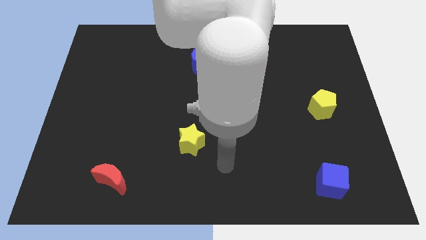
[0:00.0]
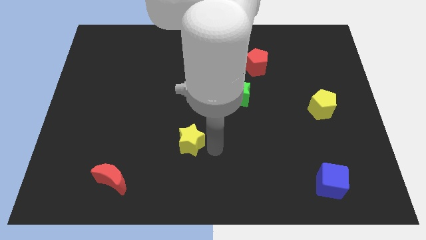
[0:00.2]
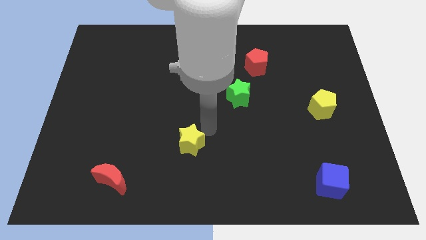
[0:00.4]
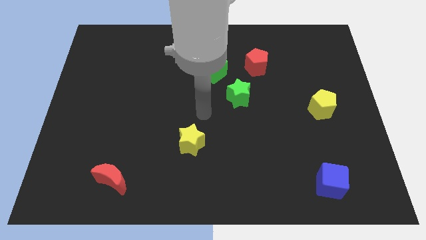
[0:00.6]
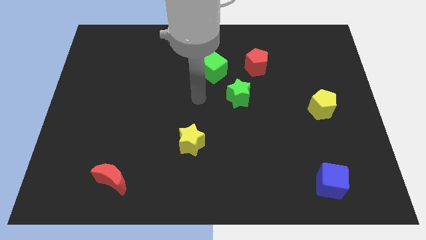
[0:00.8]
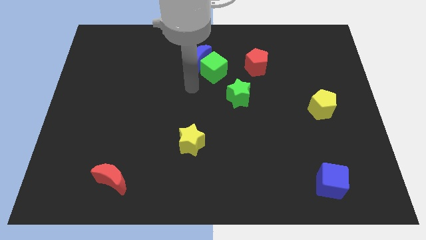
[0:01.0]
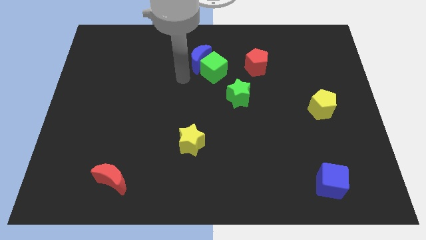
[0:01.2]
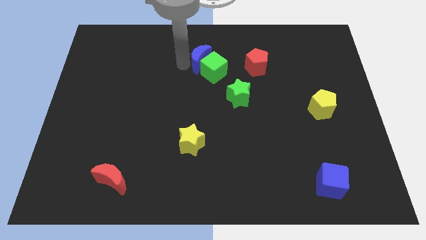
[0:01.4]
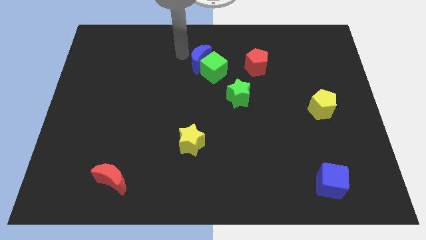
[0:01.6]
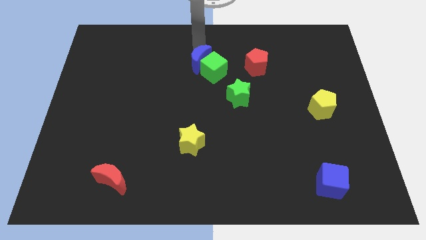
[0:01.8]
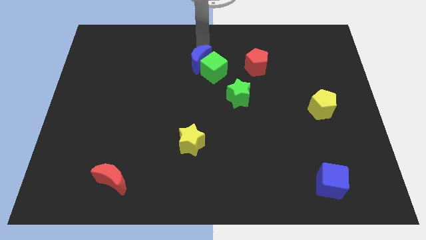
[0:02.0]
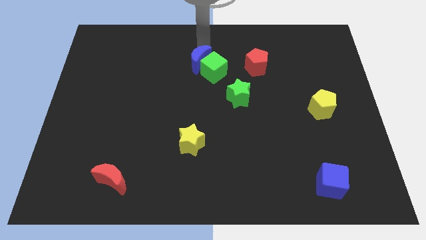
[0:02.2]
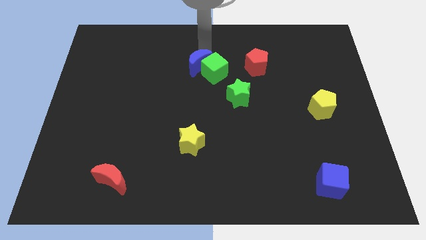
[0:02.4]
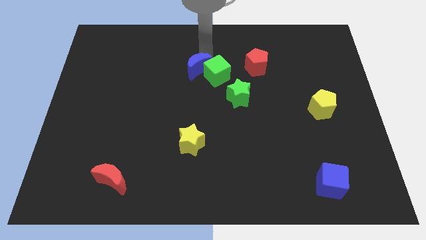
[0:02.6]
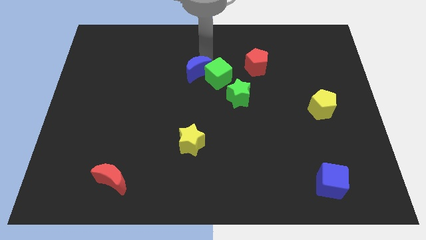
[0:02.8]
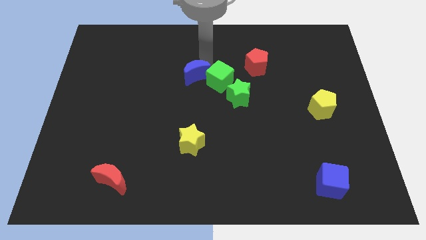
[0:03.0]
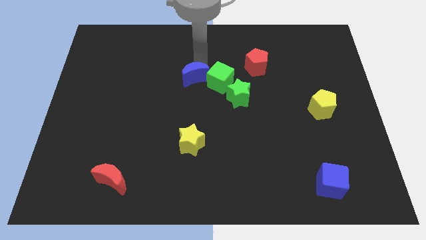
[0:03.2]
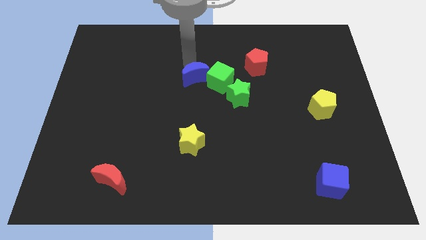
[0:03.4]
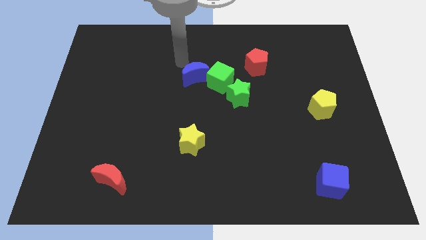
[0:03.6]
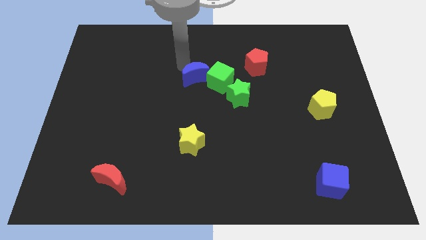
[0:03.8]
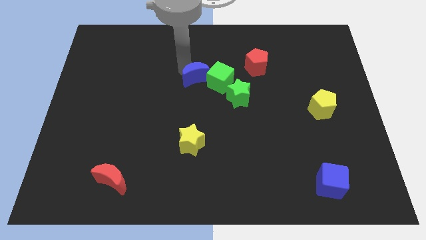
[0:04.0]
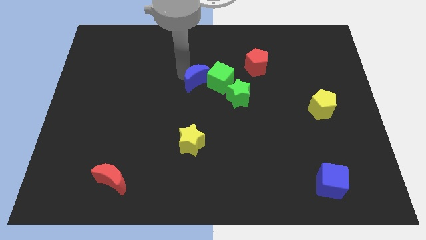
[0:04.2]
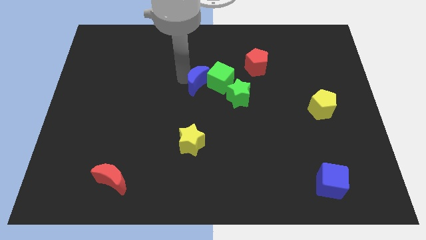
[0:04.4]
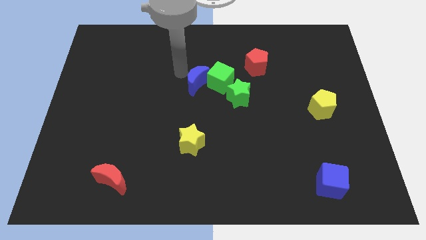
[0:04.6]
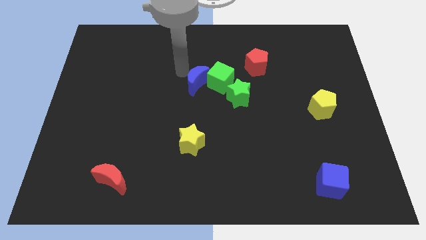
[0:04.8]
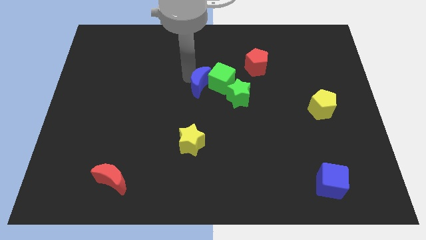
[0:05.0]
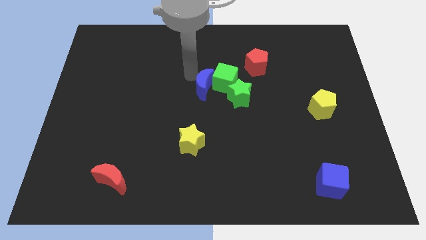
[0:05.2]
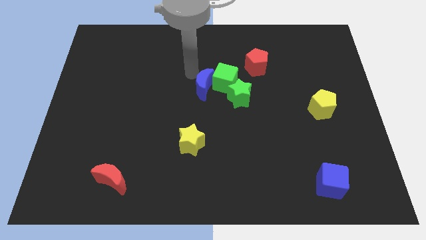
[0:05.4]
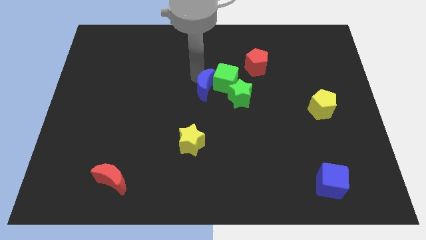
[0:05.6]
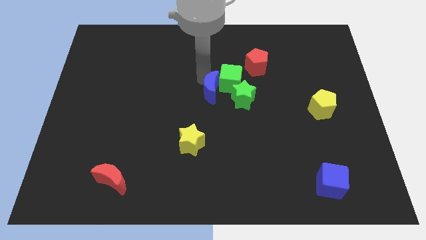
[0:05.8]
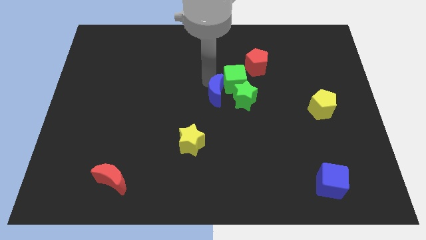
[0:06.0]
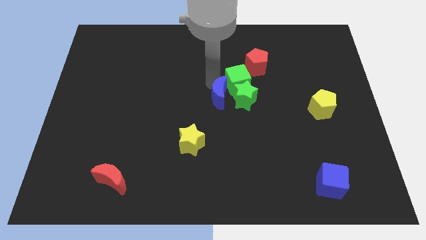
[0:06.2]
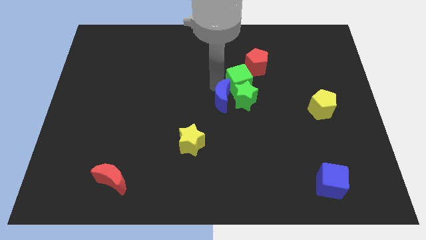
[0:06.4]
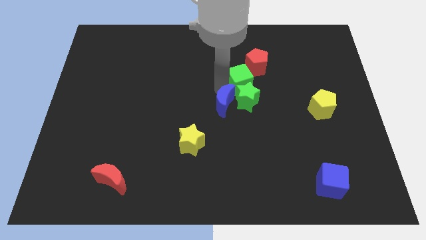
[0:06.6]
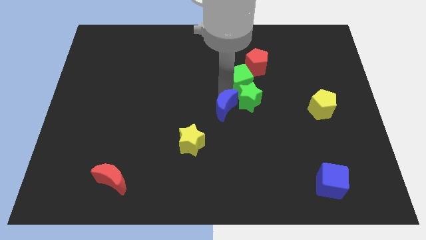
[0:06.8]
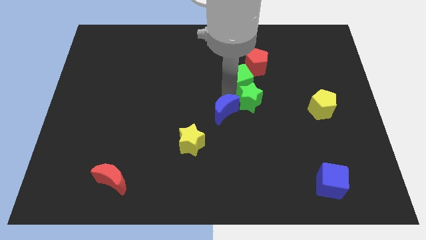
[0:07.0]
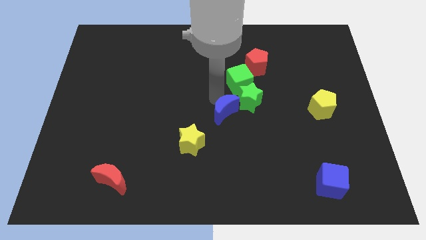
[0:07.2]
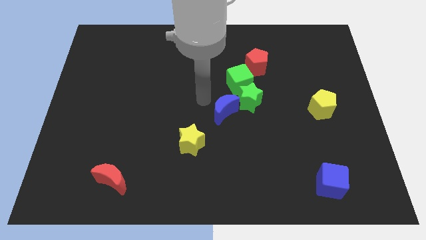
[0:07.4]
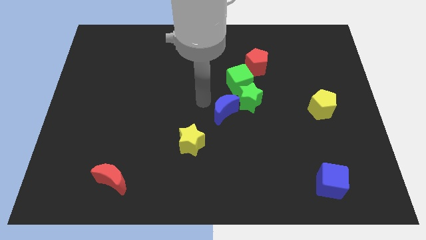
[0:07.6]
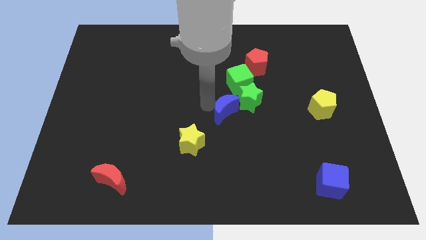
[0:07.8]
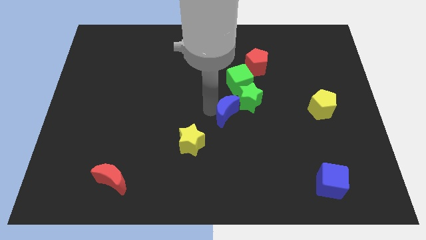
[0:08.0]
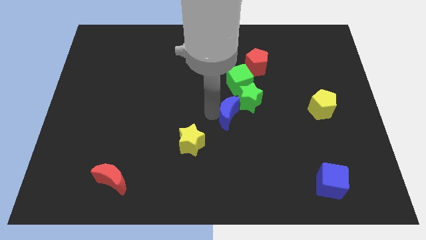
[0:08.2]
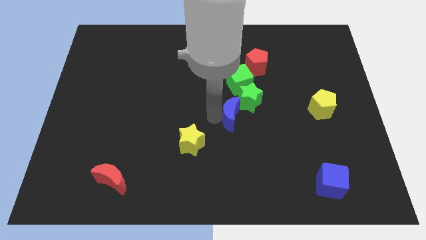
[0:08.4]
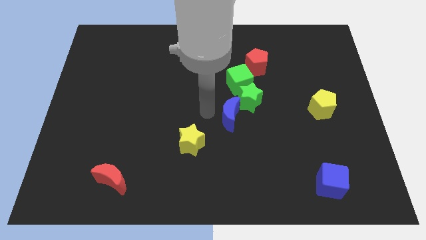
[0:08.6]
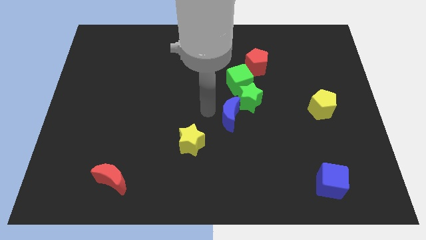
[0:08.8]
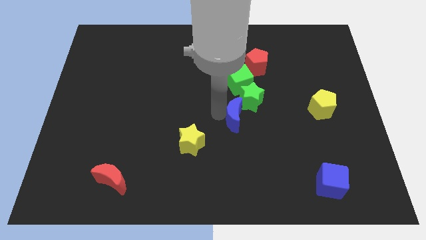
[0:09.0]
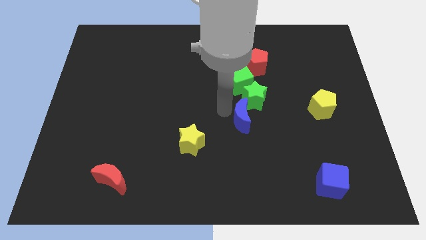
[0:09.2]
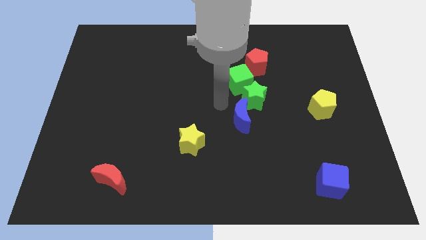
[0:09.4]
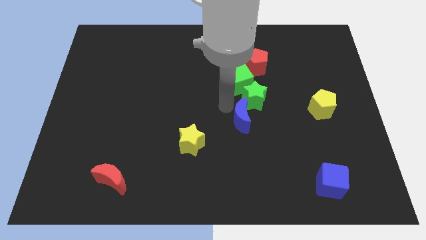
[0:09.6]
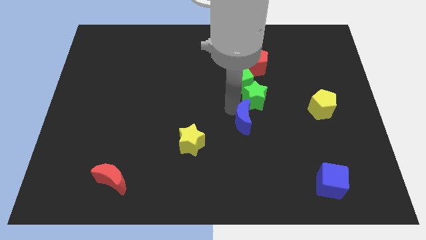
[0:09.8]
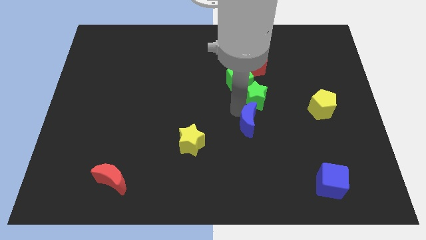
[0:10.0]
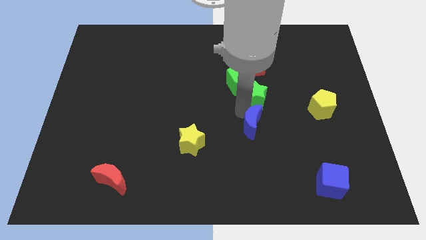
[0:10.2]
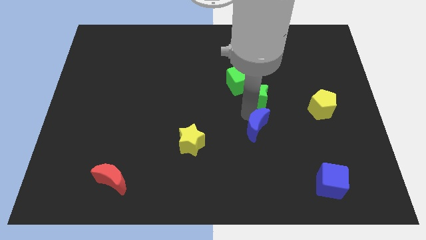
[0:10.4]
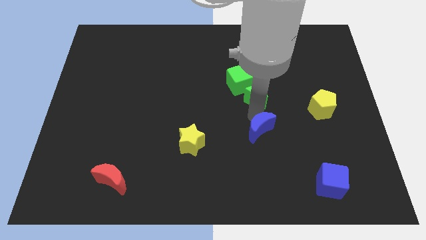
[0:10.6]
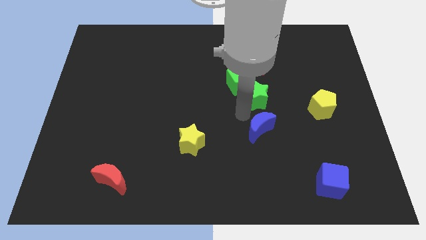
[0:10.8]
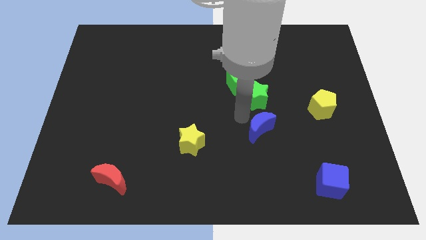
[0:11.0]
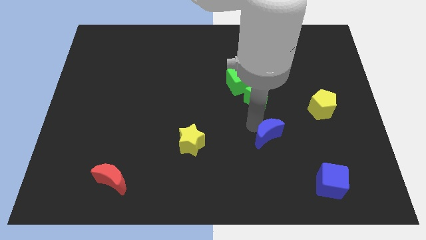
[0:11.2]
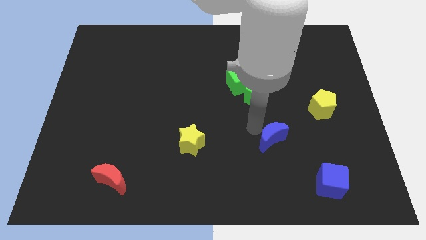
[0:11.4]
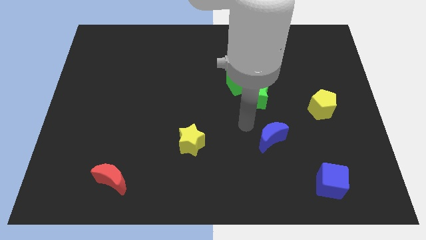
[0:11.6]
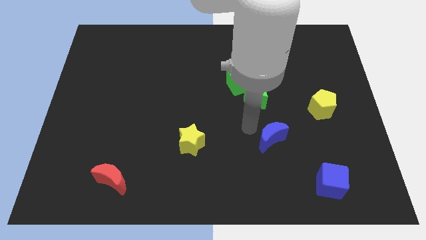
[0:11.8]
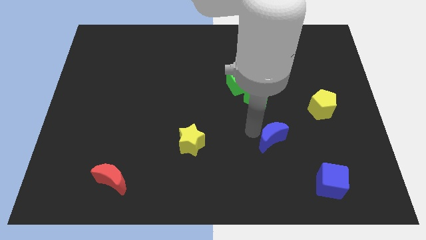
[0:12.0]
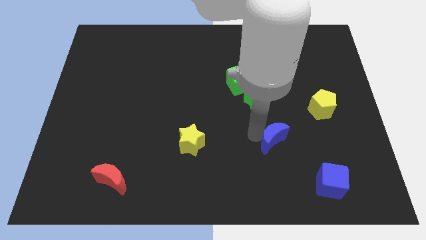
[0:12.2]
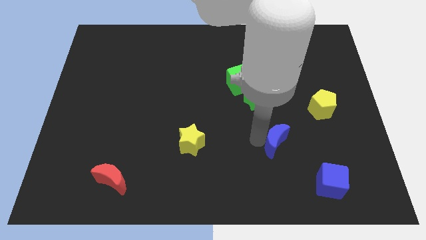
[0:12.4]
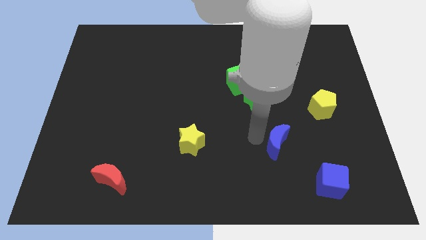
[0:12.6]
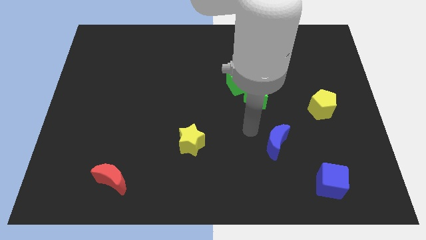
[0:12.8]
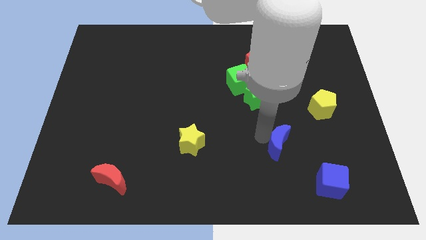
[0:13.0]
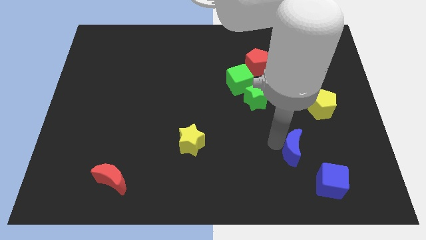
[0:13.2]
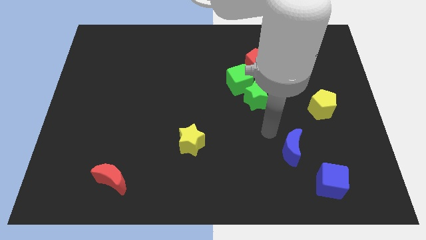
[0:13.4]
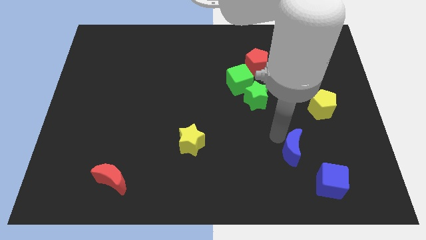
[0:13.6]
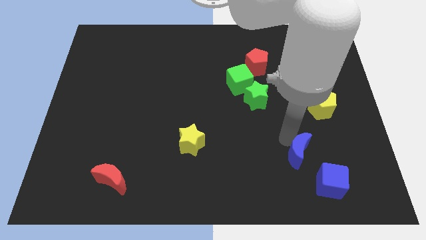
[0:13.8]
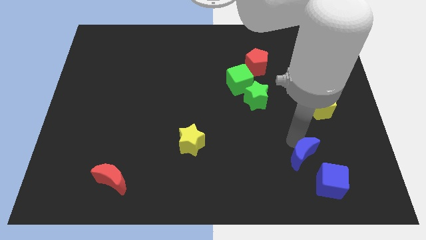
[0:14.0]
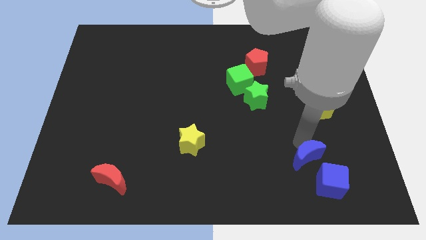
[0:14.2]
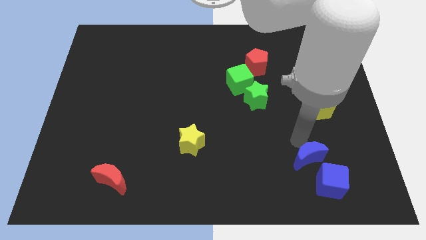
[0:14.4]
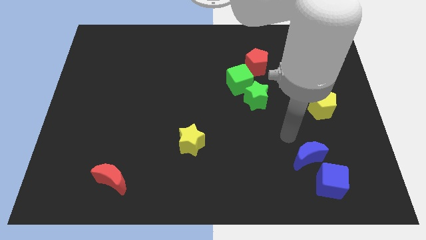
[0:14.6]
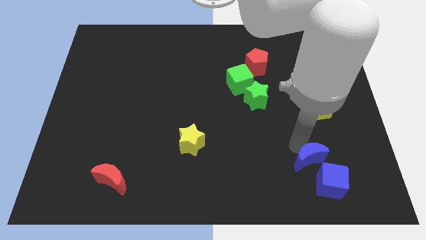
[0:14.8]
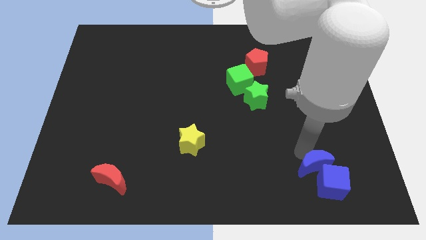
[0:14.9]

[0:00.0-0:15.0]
put the blue moon close to the blue cube
